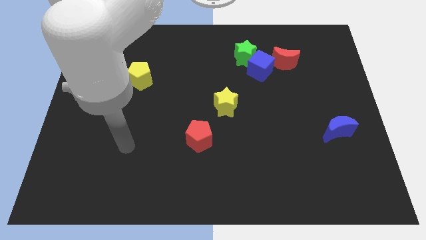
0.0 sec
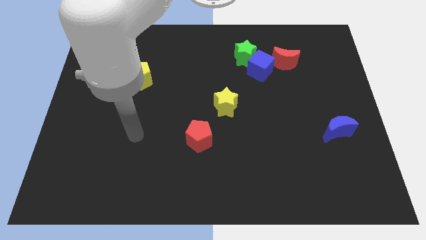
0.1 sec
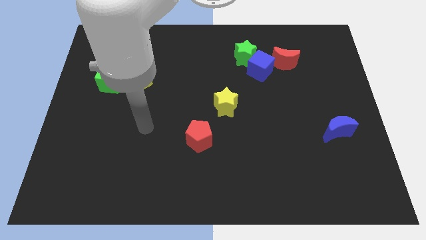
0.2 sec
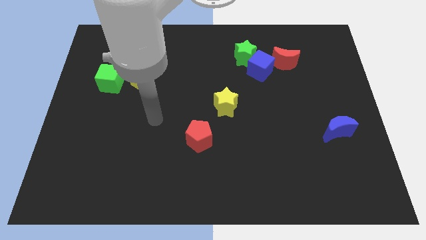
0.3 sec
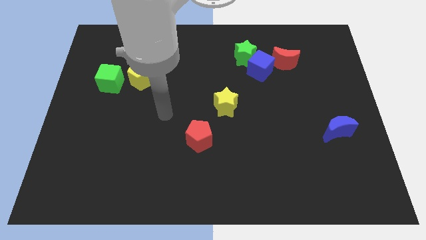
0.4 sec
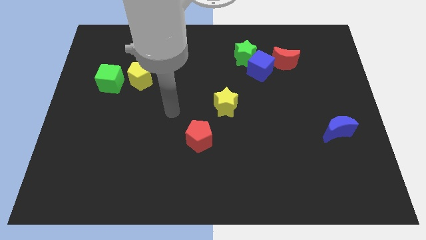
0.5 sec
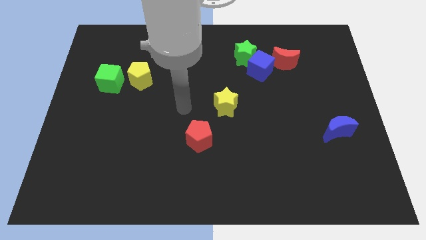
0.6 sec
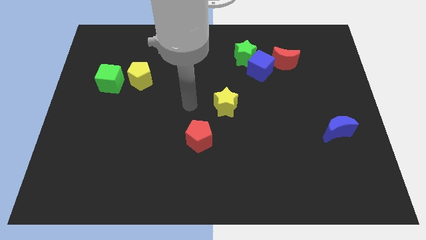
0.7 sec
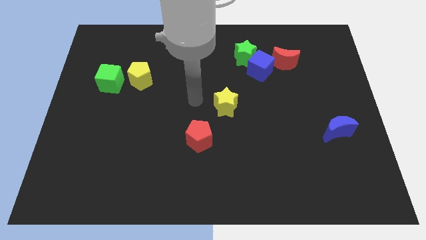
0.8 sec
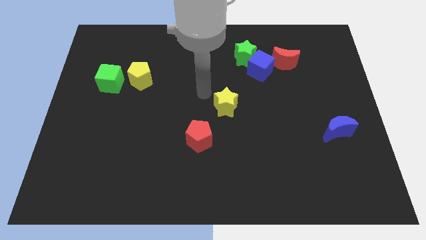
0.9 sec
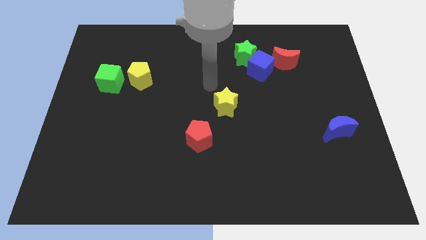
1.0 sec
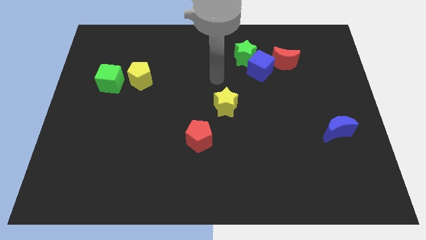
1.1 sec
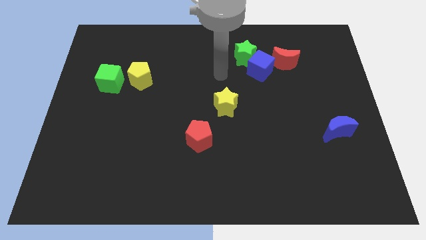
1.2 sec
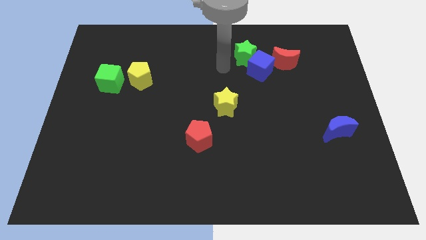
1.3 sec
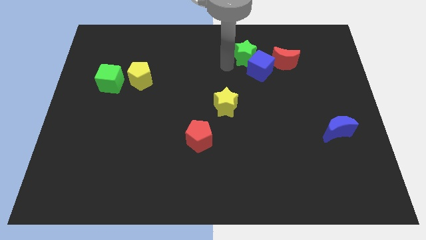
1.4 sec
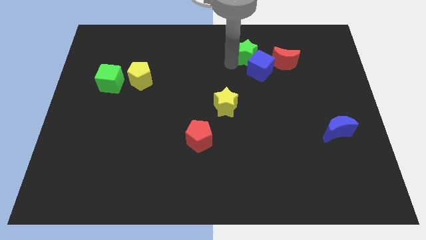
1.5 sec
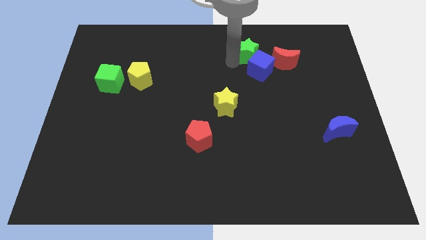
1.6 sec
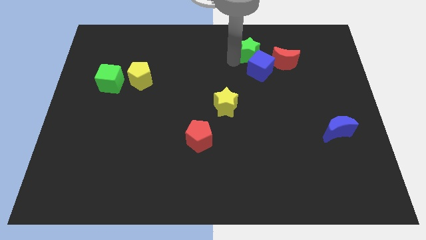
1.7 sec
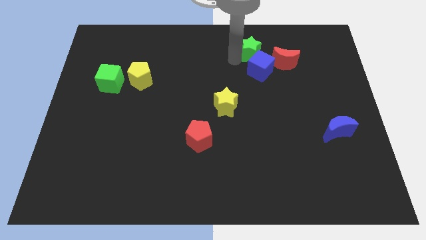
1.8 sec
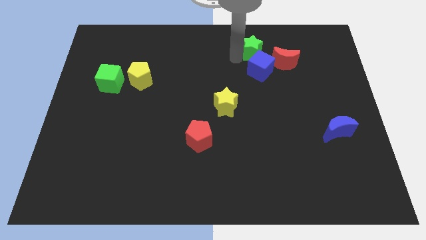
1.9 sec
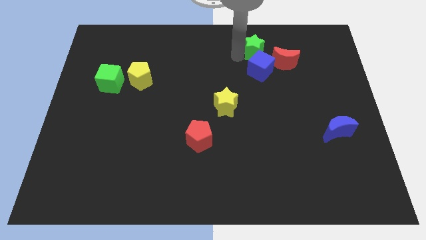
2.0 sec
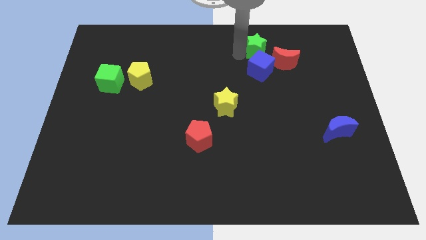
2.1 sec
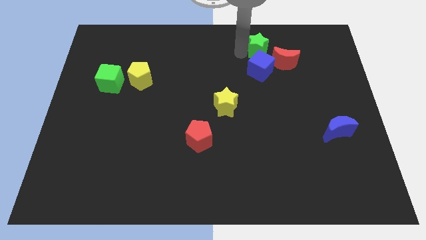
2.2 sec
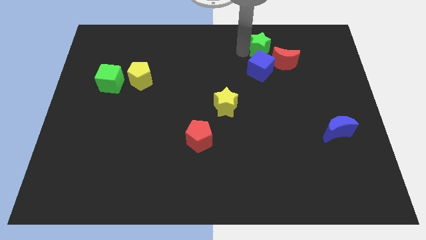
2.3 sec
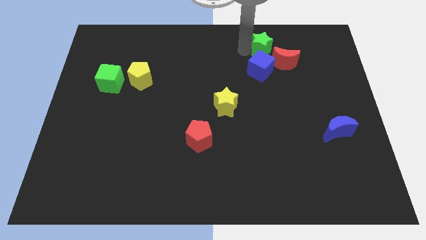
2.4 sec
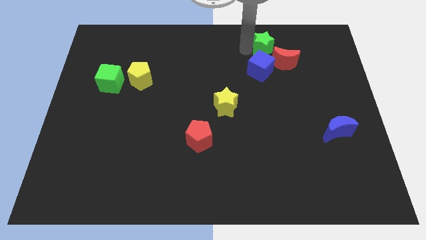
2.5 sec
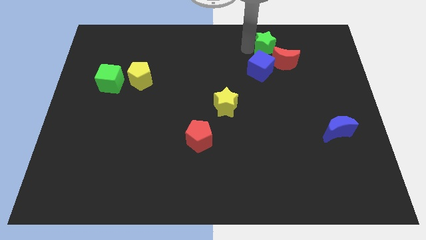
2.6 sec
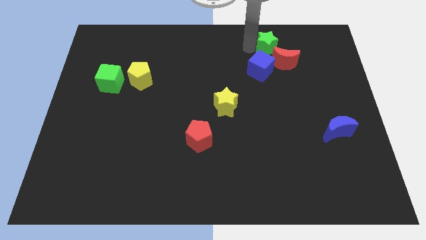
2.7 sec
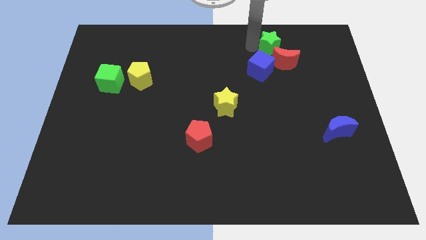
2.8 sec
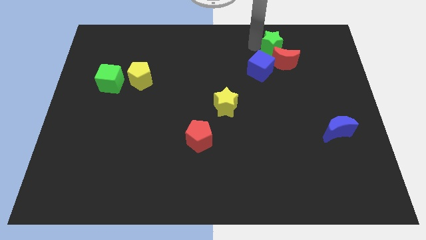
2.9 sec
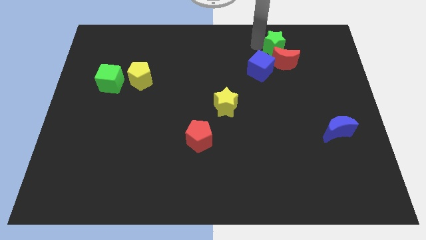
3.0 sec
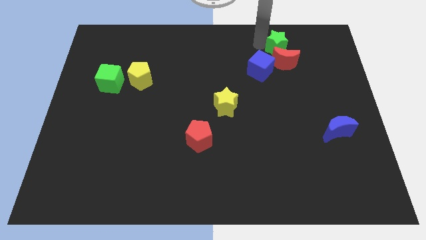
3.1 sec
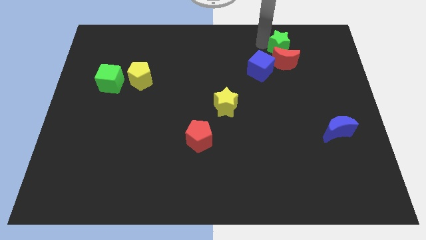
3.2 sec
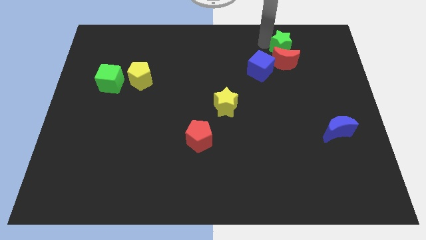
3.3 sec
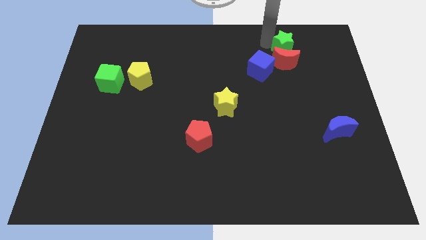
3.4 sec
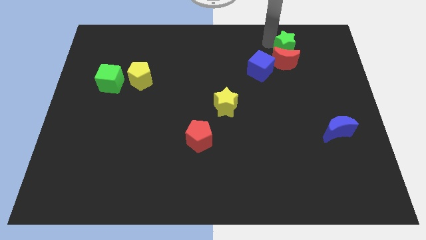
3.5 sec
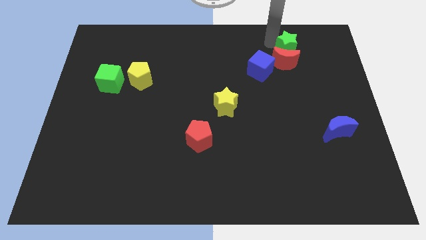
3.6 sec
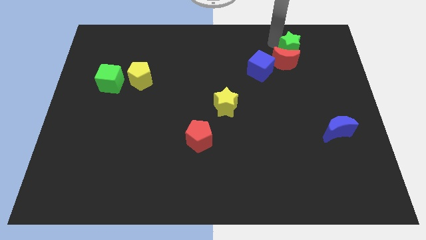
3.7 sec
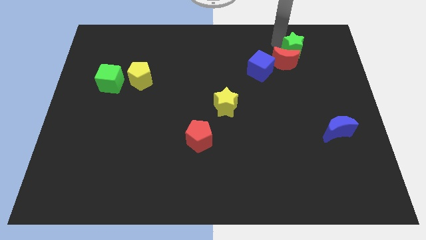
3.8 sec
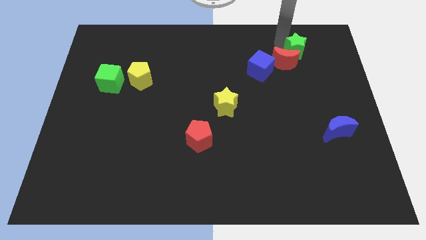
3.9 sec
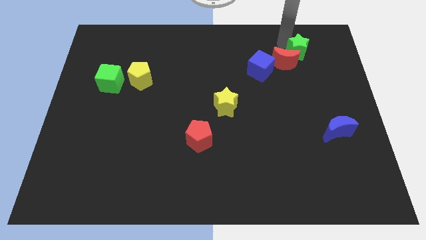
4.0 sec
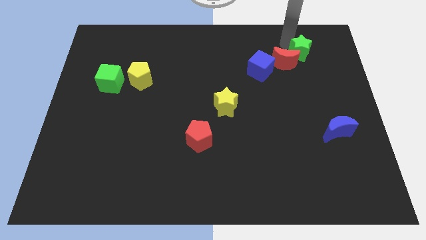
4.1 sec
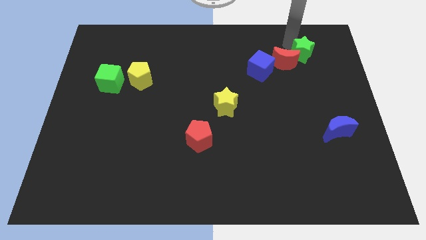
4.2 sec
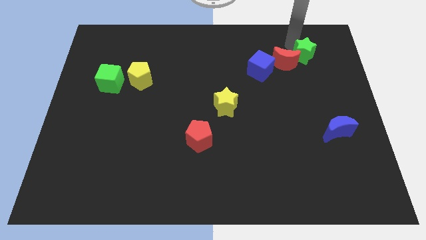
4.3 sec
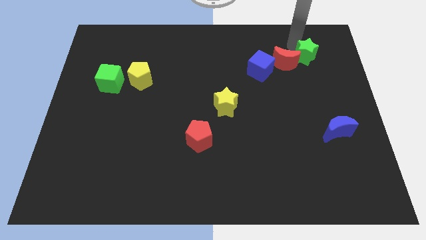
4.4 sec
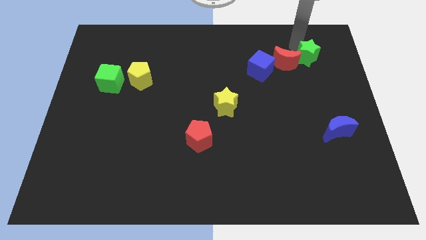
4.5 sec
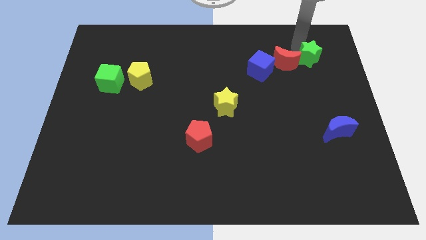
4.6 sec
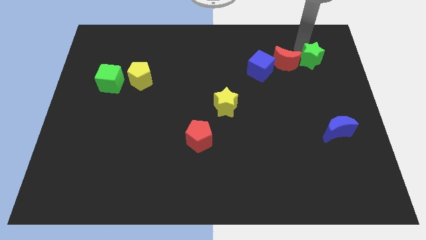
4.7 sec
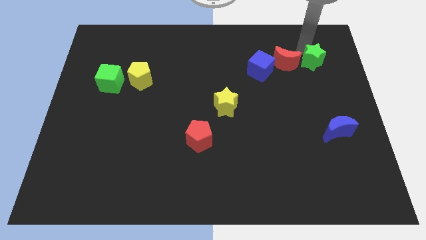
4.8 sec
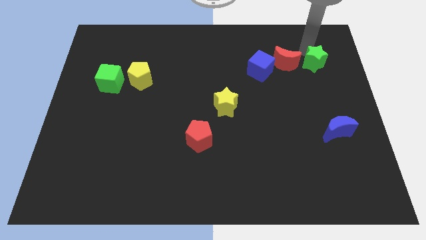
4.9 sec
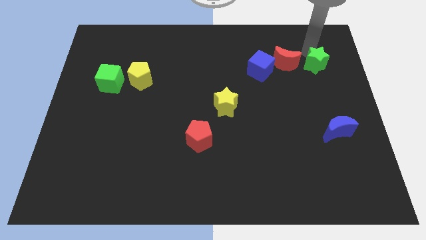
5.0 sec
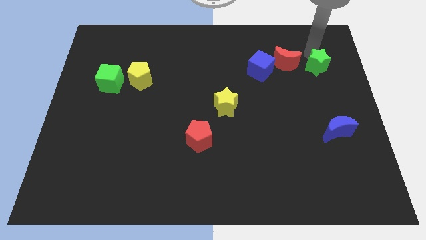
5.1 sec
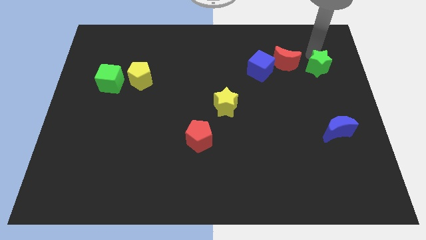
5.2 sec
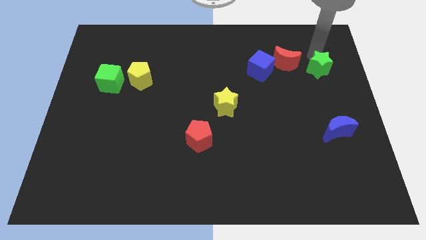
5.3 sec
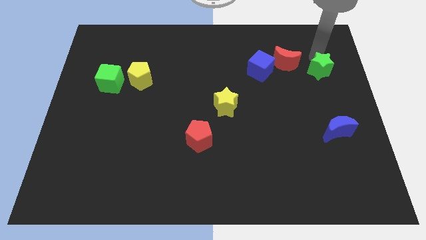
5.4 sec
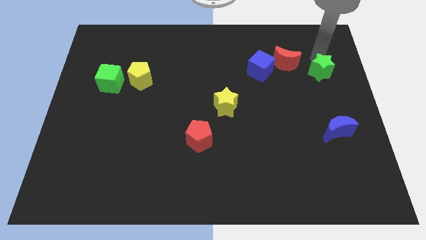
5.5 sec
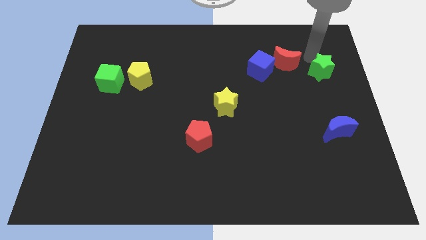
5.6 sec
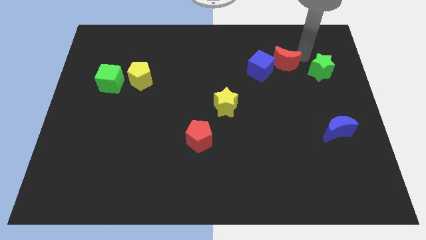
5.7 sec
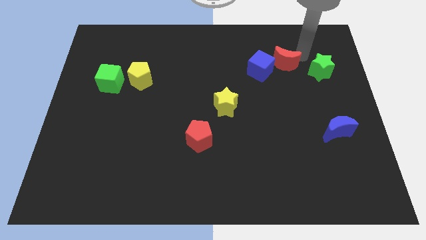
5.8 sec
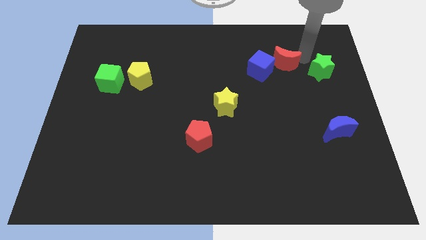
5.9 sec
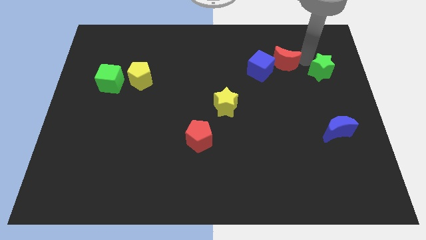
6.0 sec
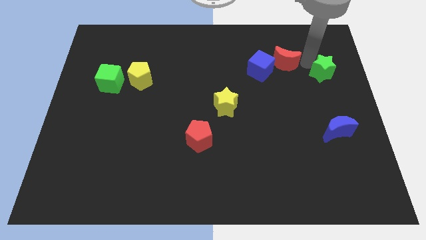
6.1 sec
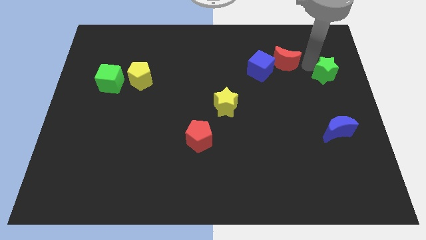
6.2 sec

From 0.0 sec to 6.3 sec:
put the green star to the center right
